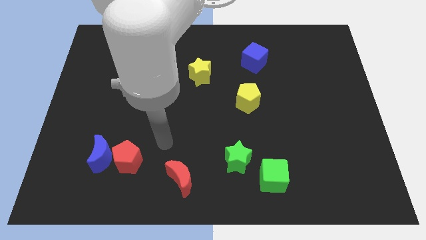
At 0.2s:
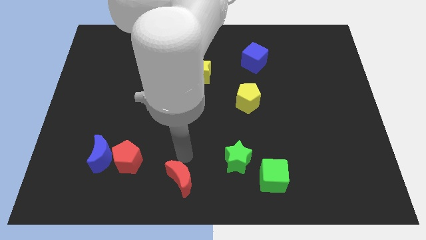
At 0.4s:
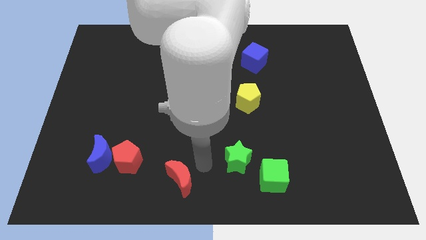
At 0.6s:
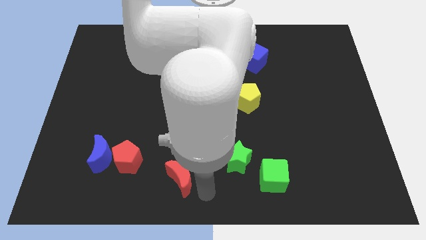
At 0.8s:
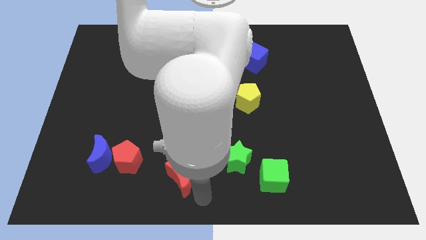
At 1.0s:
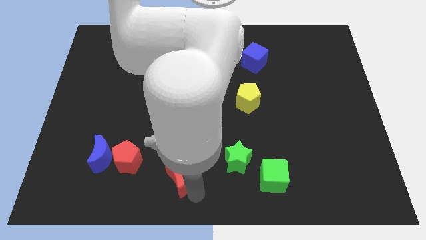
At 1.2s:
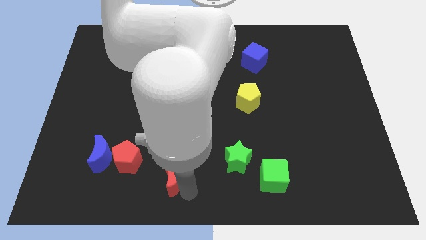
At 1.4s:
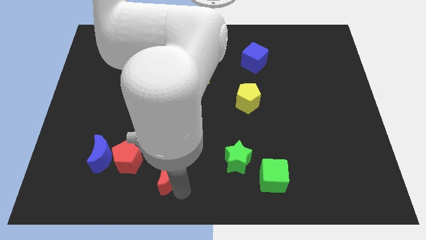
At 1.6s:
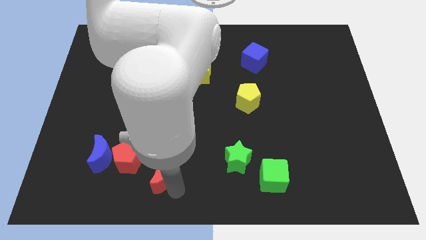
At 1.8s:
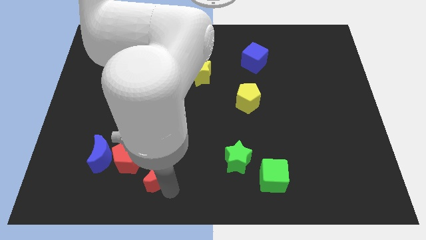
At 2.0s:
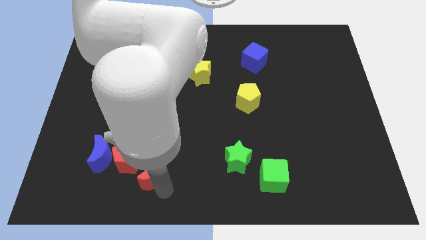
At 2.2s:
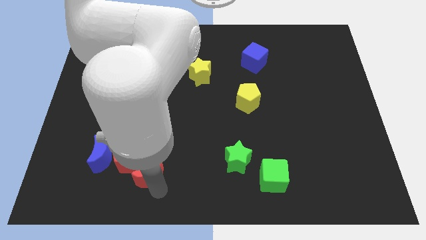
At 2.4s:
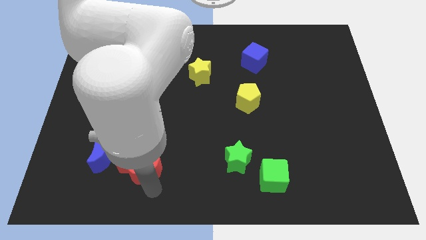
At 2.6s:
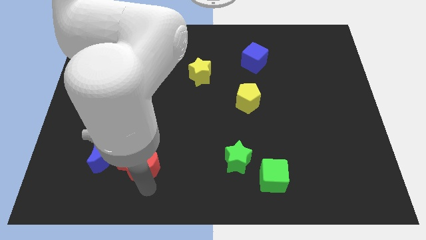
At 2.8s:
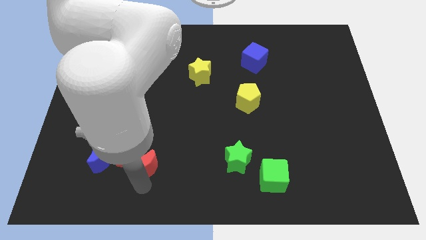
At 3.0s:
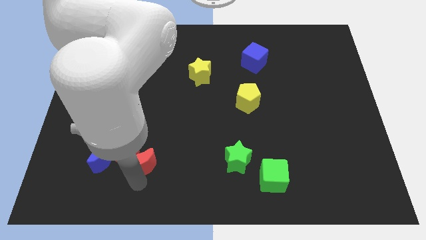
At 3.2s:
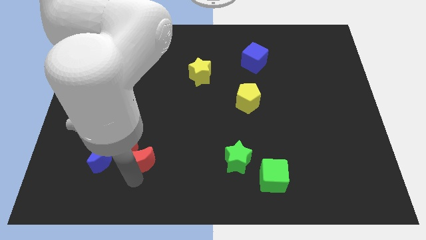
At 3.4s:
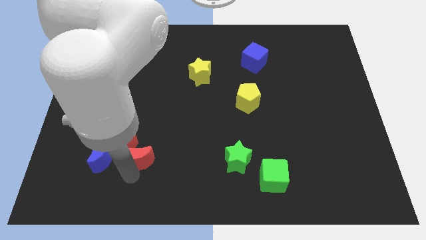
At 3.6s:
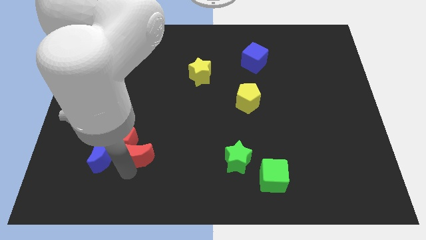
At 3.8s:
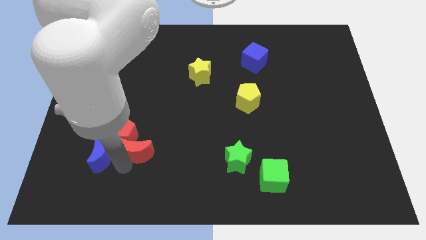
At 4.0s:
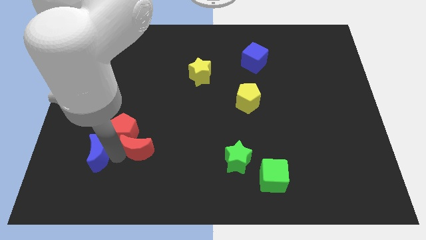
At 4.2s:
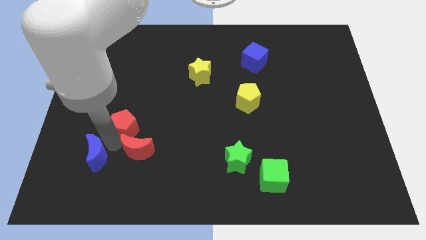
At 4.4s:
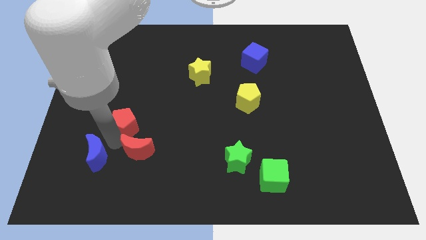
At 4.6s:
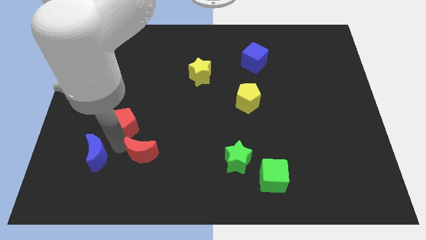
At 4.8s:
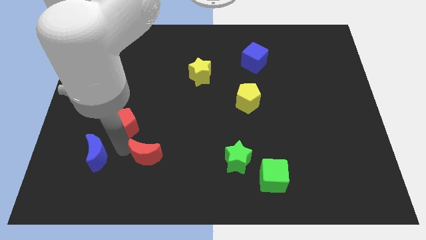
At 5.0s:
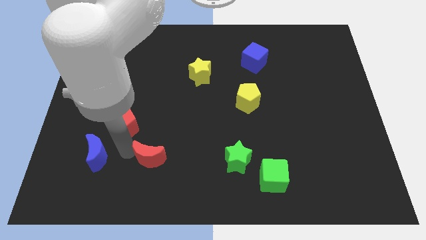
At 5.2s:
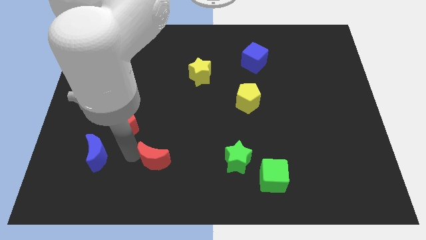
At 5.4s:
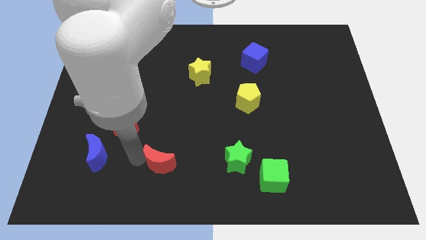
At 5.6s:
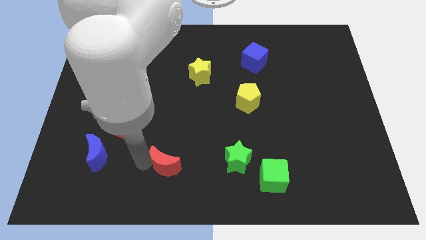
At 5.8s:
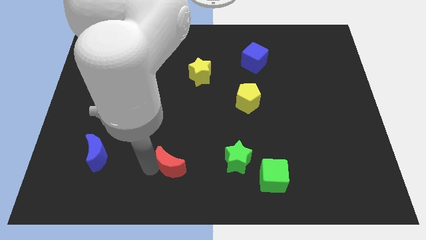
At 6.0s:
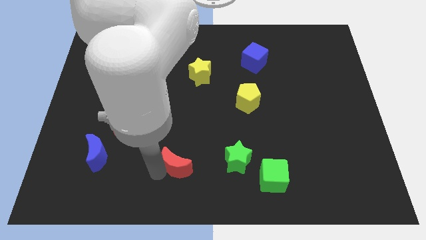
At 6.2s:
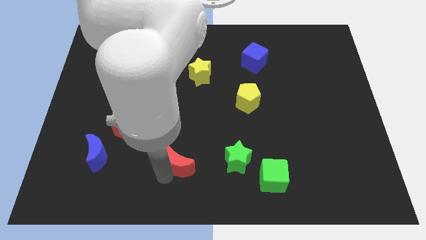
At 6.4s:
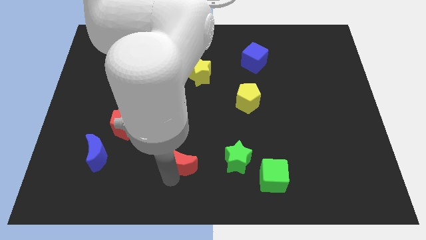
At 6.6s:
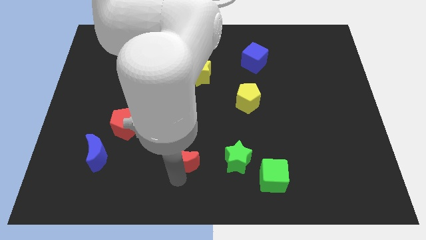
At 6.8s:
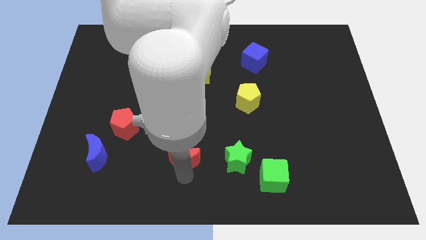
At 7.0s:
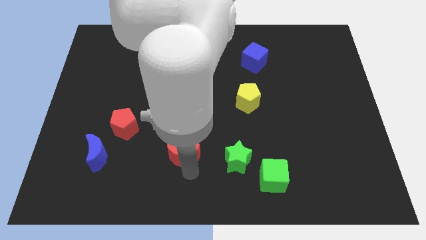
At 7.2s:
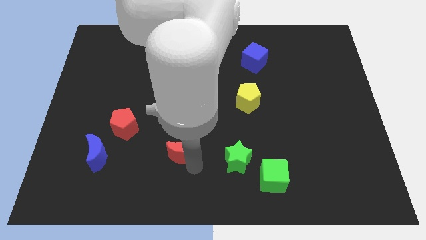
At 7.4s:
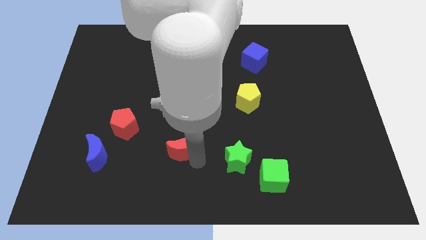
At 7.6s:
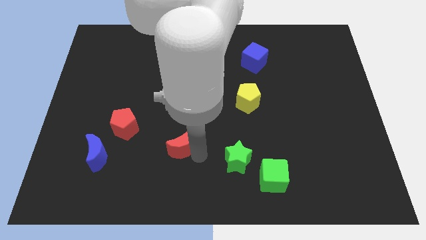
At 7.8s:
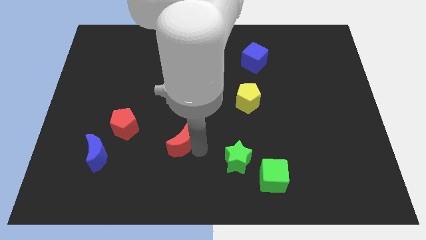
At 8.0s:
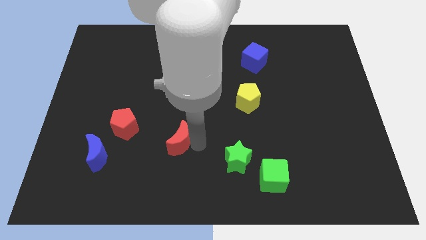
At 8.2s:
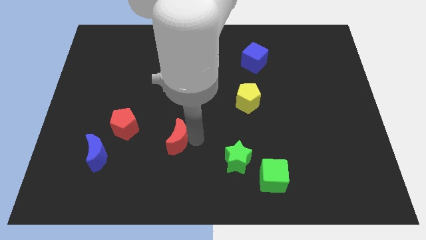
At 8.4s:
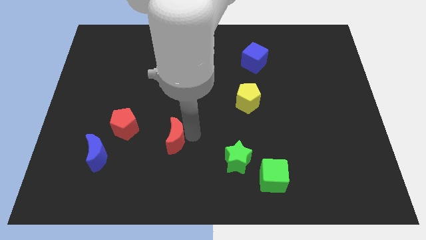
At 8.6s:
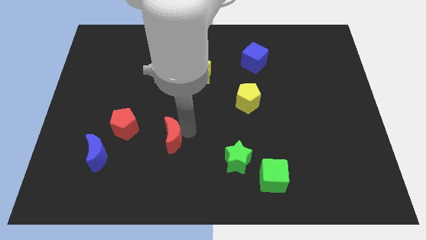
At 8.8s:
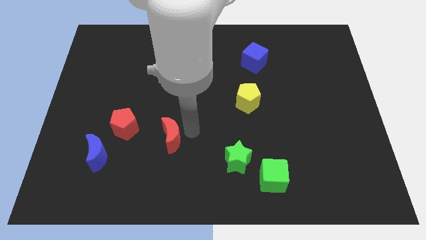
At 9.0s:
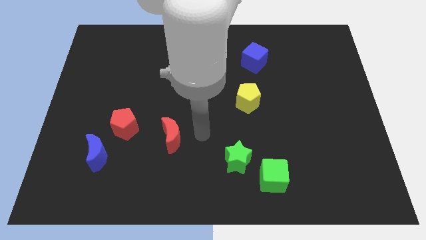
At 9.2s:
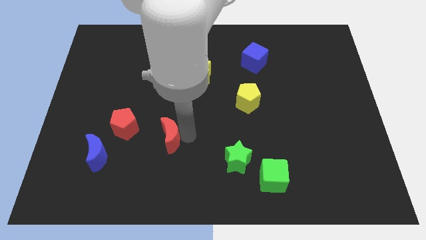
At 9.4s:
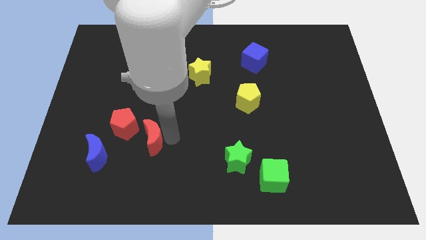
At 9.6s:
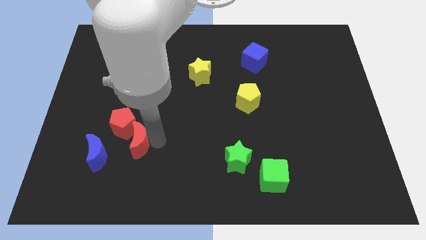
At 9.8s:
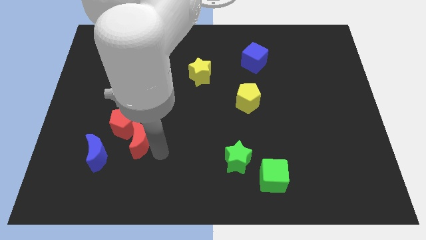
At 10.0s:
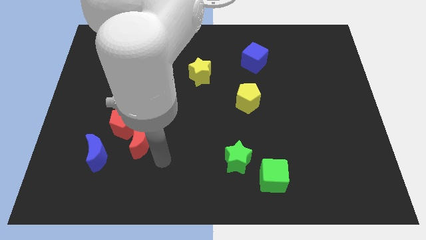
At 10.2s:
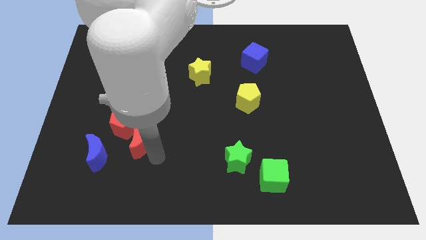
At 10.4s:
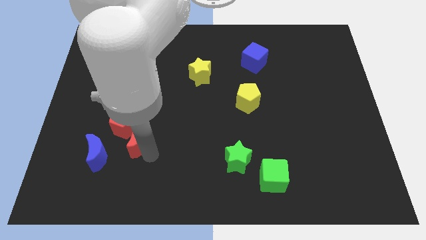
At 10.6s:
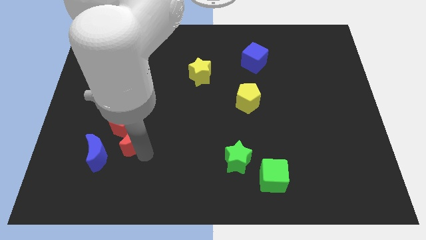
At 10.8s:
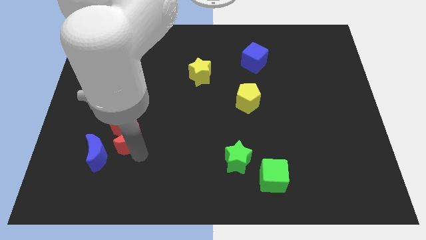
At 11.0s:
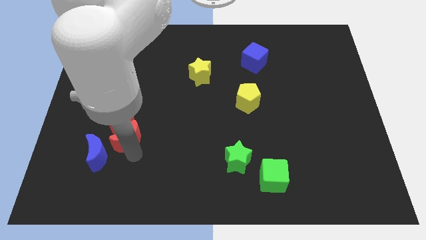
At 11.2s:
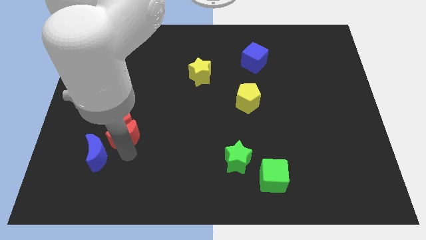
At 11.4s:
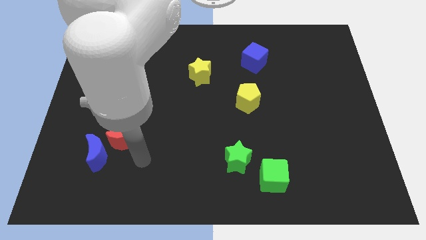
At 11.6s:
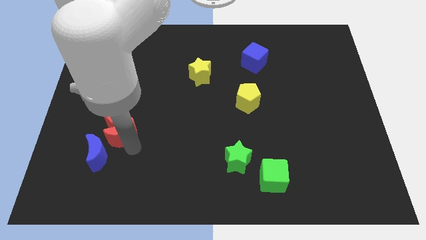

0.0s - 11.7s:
put the red moon to the top side of the blue moon

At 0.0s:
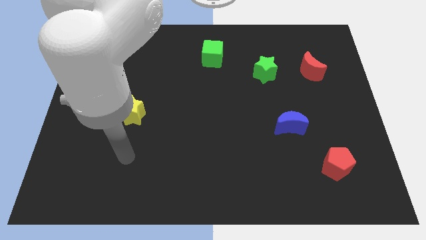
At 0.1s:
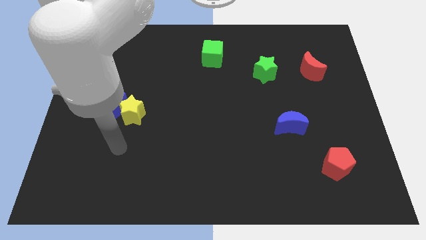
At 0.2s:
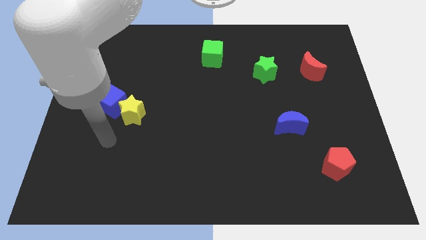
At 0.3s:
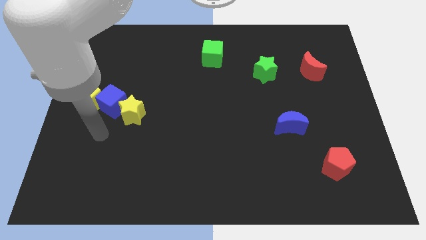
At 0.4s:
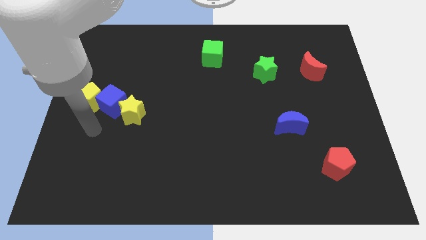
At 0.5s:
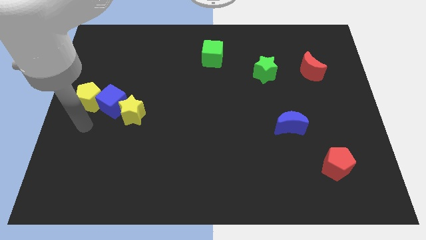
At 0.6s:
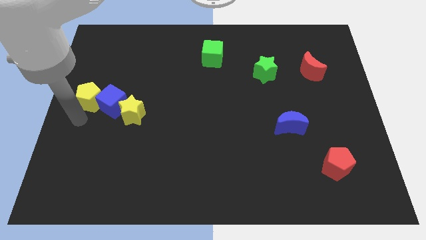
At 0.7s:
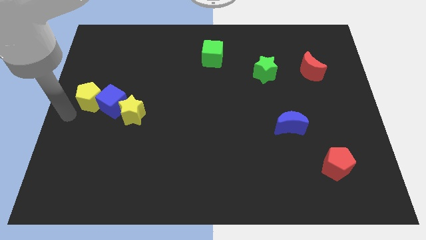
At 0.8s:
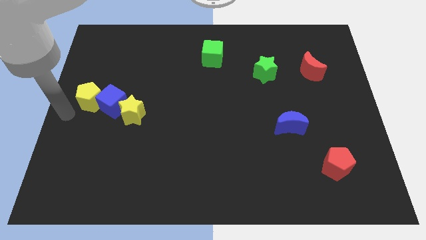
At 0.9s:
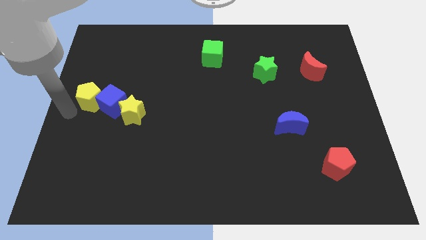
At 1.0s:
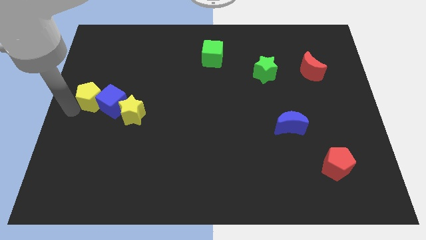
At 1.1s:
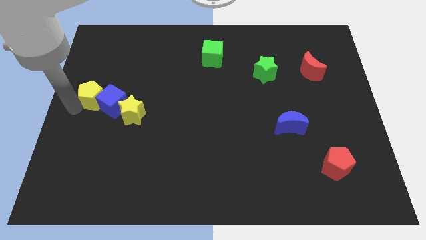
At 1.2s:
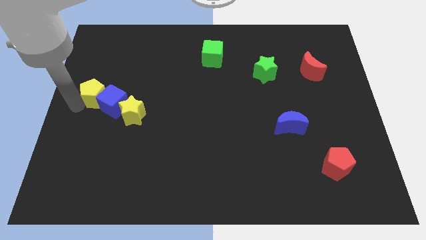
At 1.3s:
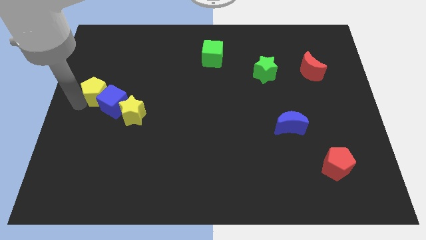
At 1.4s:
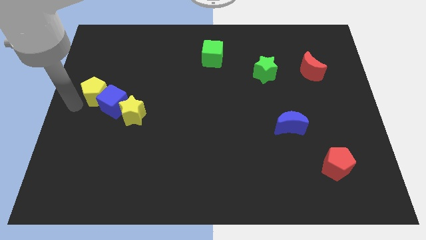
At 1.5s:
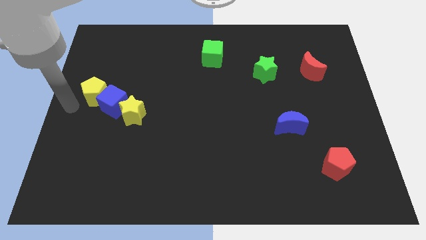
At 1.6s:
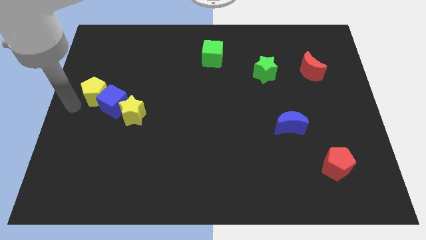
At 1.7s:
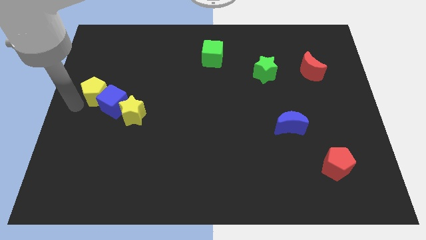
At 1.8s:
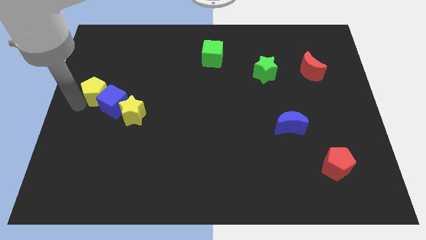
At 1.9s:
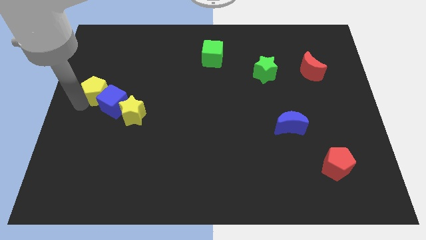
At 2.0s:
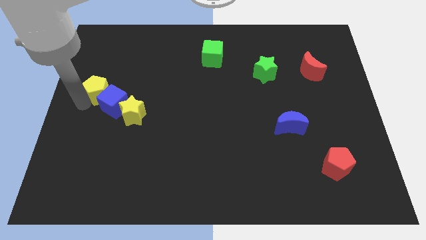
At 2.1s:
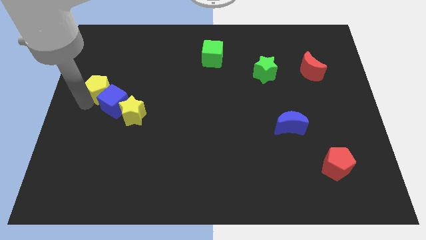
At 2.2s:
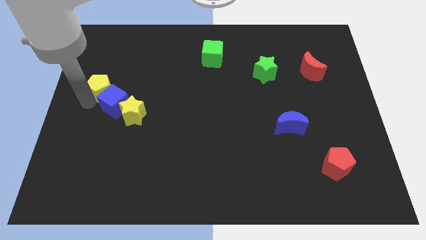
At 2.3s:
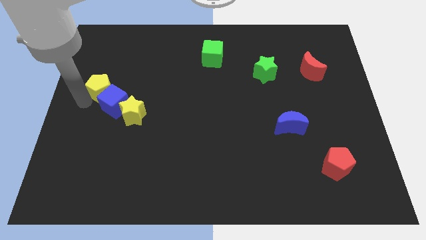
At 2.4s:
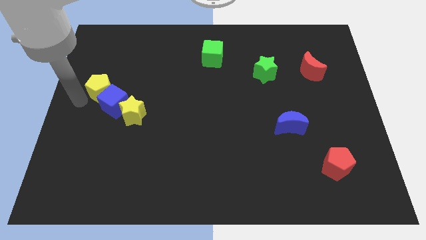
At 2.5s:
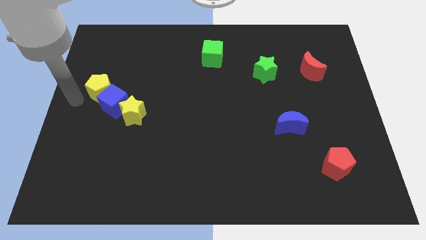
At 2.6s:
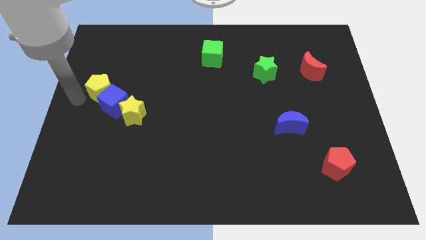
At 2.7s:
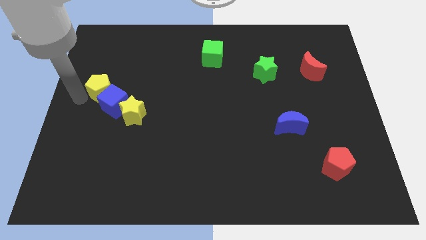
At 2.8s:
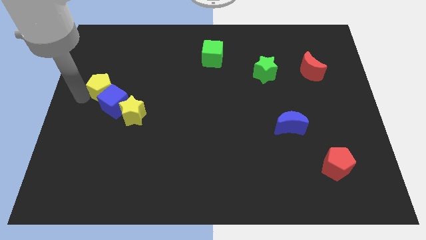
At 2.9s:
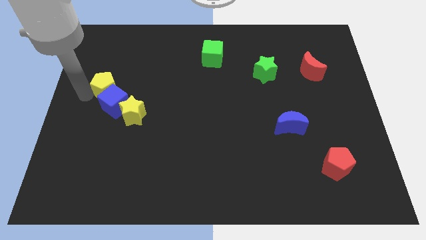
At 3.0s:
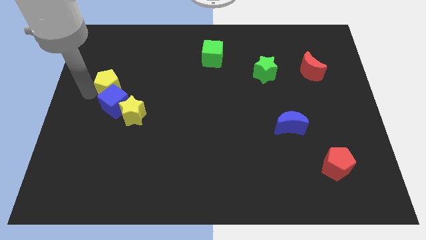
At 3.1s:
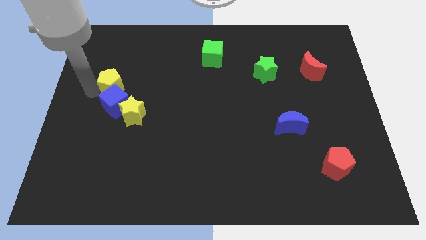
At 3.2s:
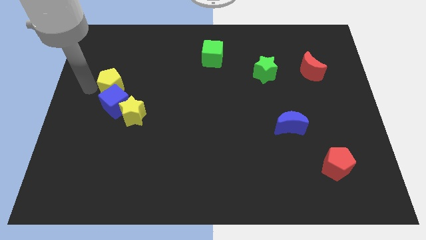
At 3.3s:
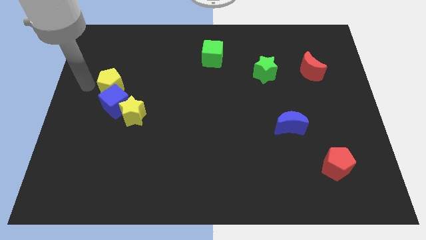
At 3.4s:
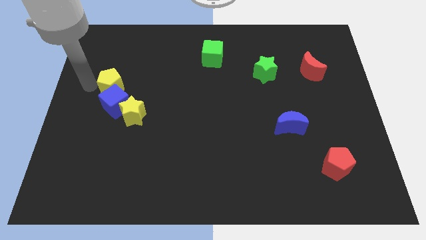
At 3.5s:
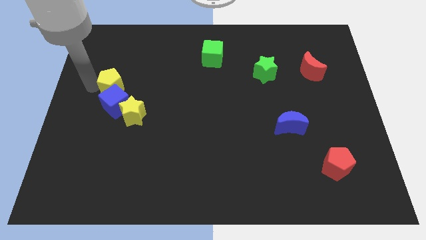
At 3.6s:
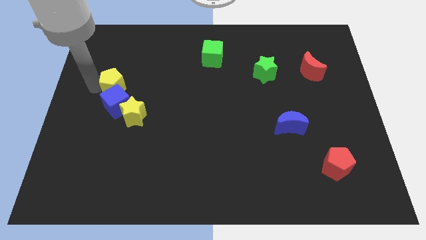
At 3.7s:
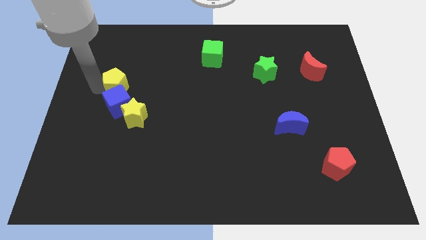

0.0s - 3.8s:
put the yellow pentagon to the top right of the blue cube
